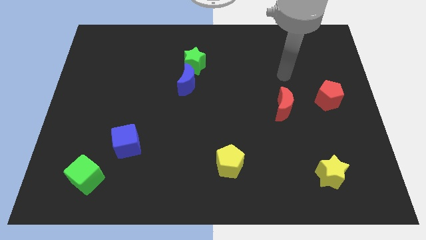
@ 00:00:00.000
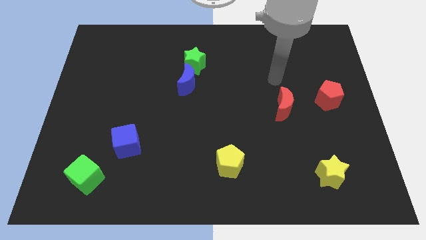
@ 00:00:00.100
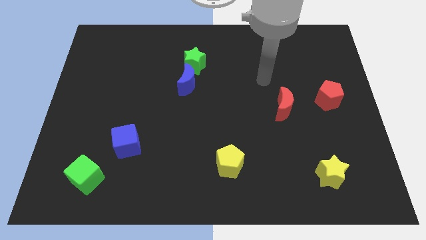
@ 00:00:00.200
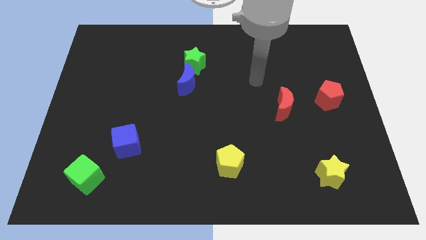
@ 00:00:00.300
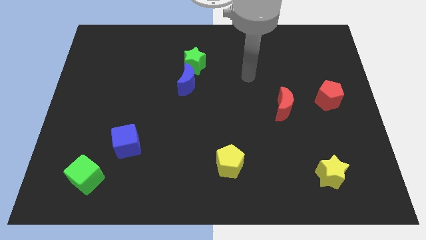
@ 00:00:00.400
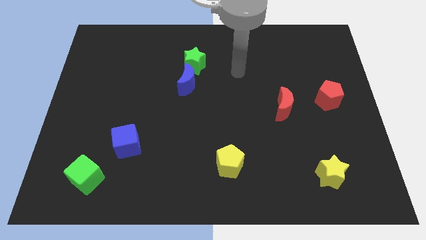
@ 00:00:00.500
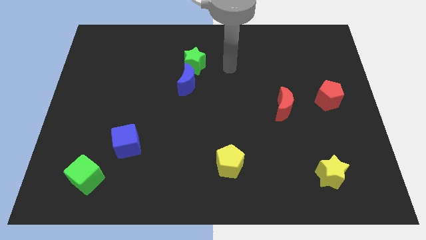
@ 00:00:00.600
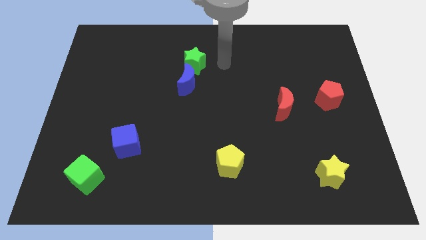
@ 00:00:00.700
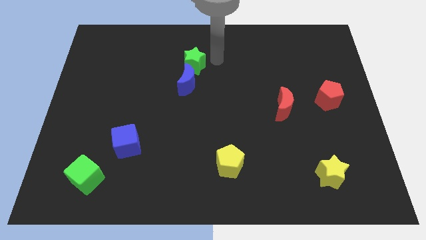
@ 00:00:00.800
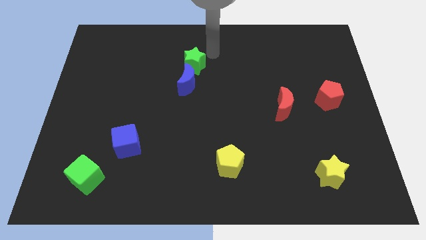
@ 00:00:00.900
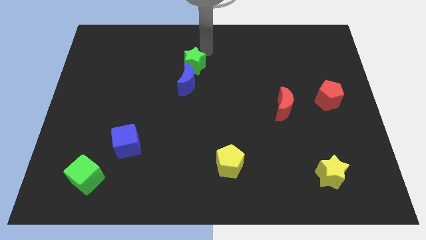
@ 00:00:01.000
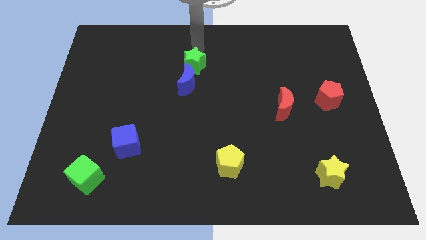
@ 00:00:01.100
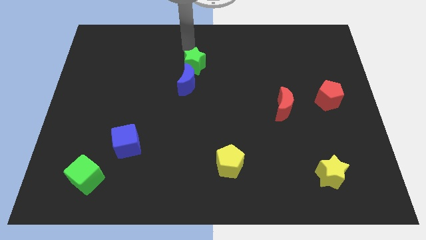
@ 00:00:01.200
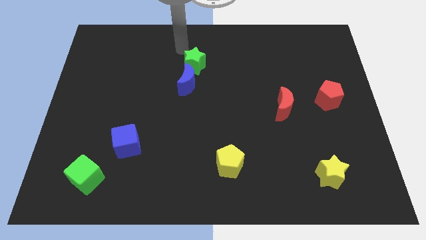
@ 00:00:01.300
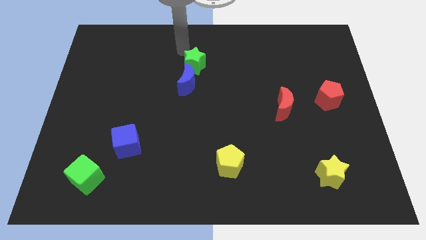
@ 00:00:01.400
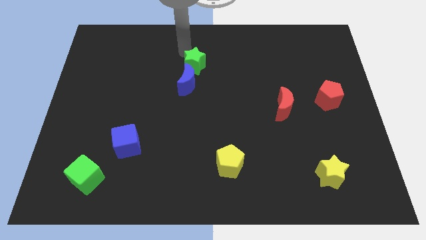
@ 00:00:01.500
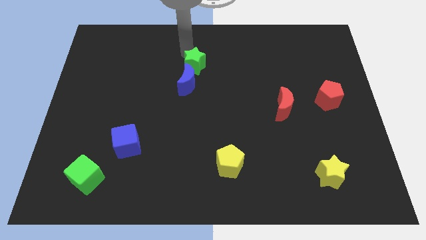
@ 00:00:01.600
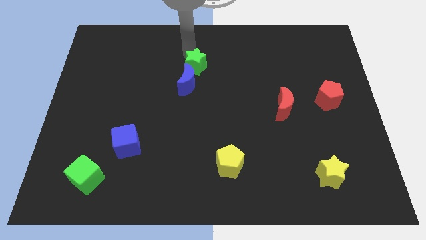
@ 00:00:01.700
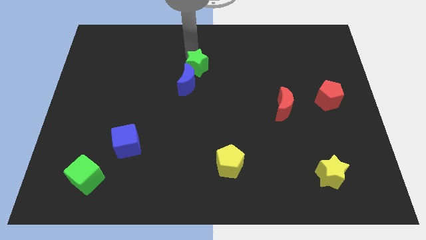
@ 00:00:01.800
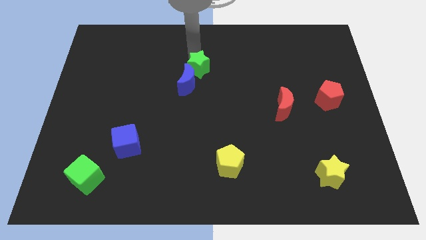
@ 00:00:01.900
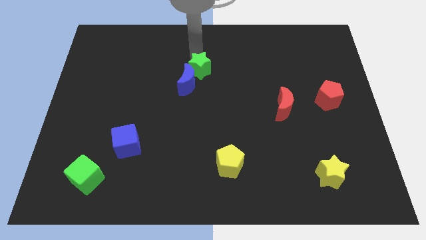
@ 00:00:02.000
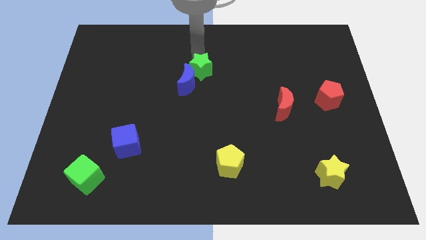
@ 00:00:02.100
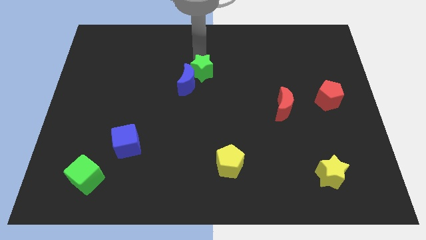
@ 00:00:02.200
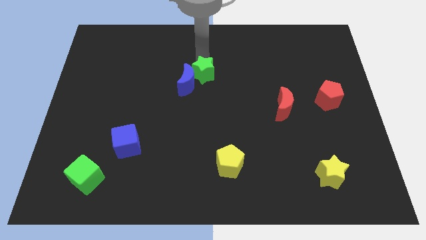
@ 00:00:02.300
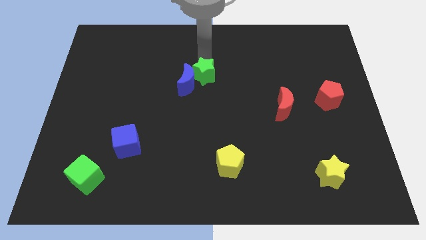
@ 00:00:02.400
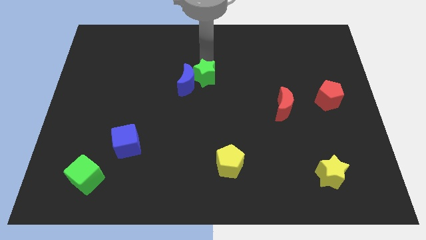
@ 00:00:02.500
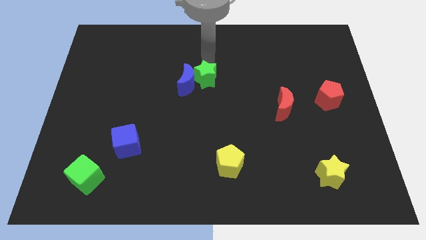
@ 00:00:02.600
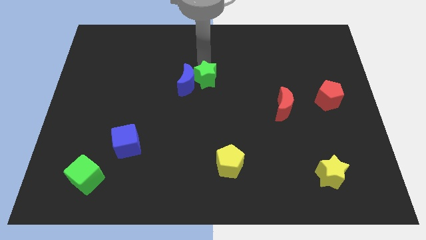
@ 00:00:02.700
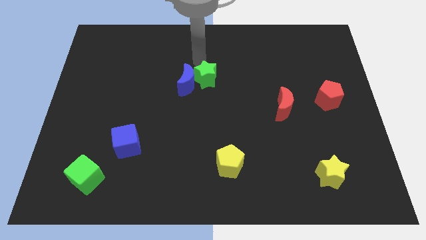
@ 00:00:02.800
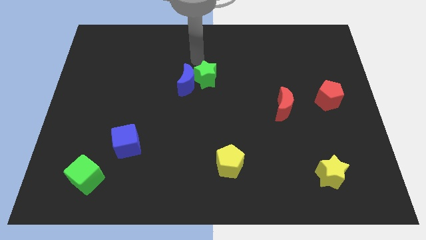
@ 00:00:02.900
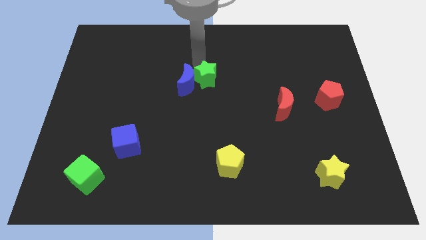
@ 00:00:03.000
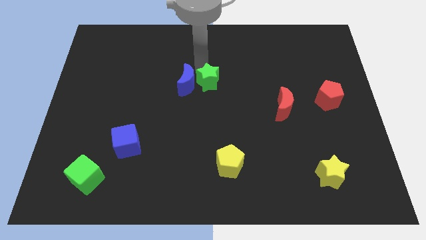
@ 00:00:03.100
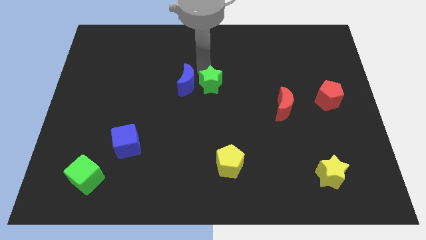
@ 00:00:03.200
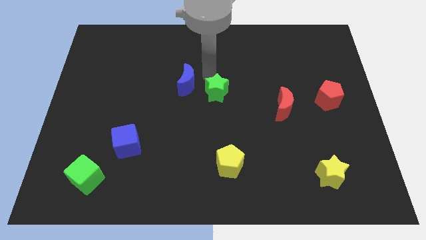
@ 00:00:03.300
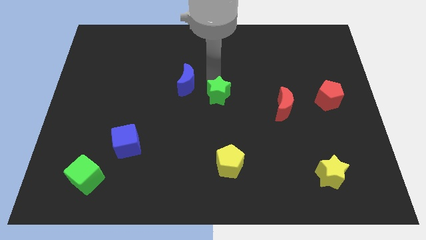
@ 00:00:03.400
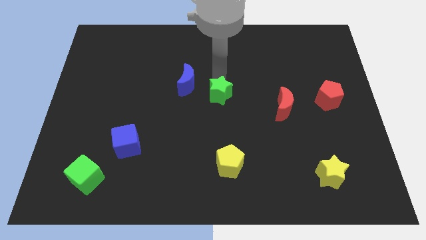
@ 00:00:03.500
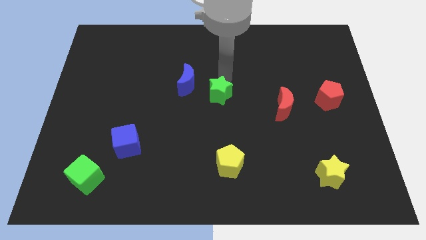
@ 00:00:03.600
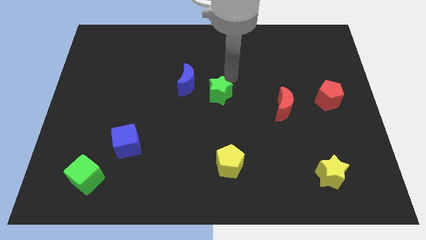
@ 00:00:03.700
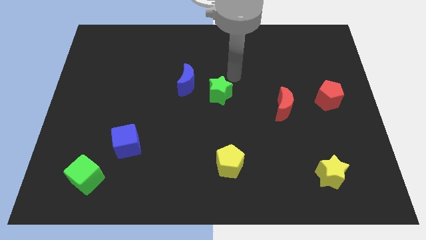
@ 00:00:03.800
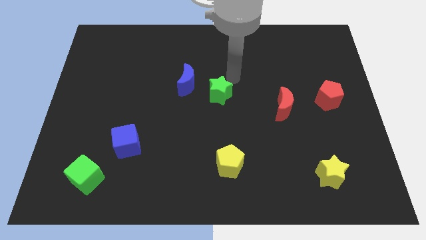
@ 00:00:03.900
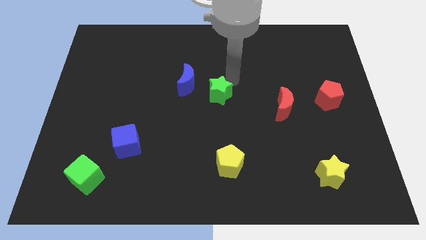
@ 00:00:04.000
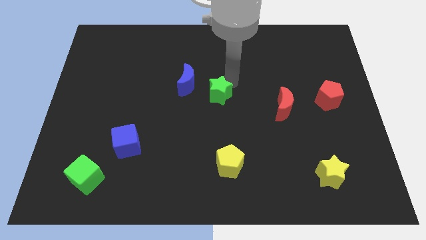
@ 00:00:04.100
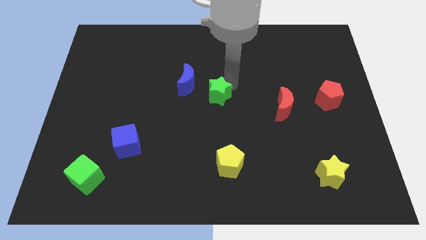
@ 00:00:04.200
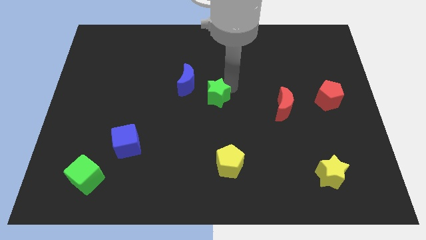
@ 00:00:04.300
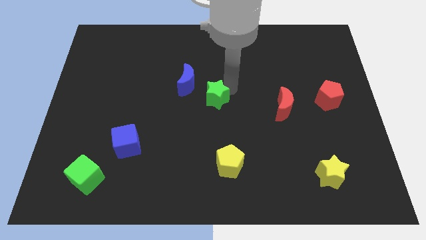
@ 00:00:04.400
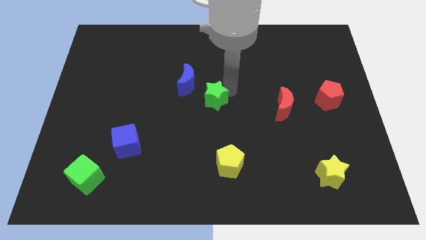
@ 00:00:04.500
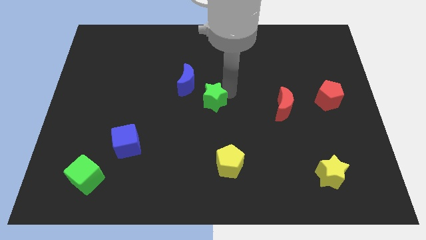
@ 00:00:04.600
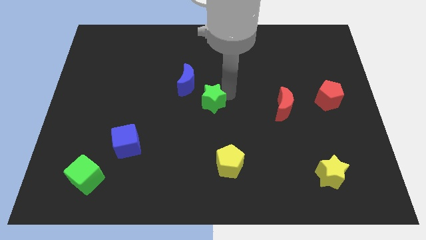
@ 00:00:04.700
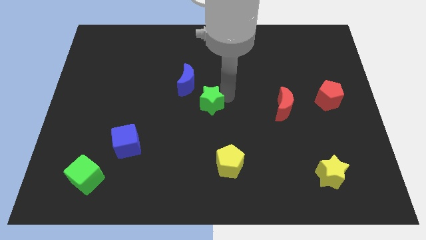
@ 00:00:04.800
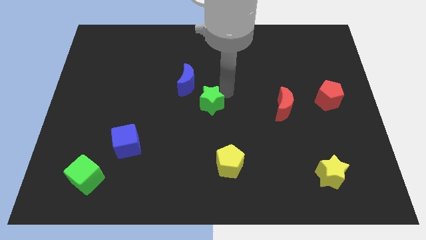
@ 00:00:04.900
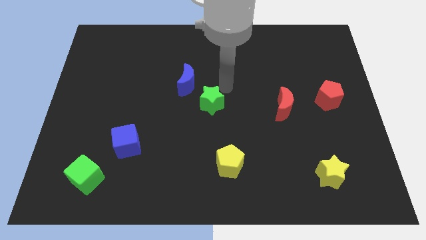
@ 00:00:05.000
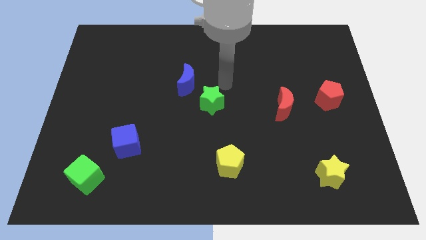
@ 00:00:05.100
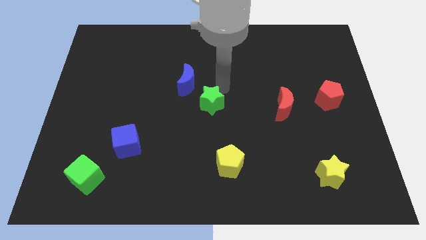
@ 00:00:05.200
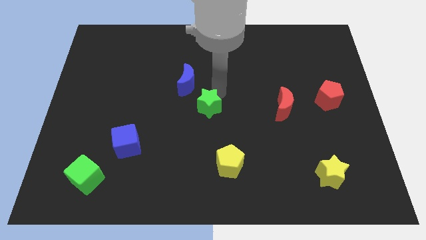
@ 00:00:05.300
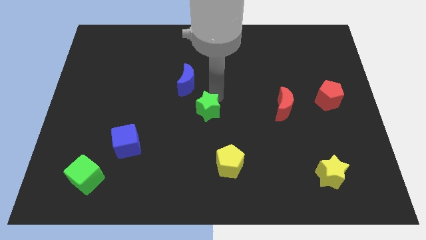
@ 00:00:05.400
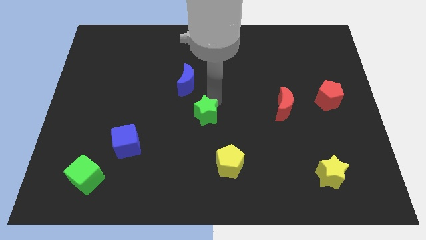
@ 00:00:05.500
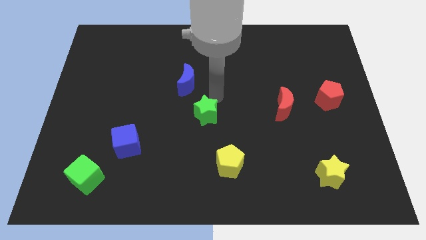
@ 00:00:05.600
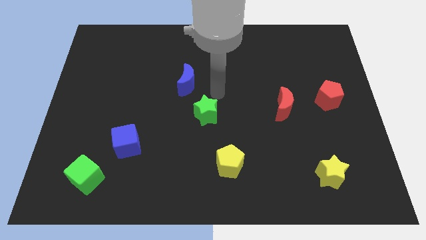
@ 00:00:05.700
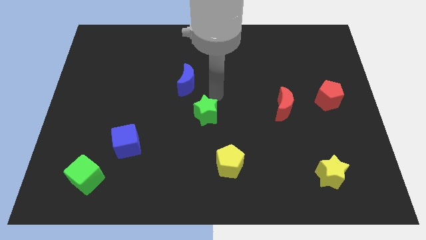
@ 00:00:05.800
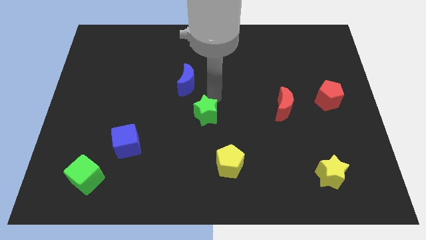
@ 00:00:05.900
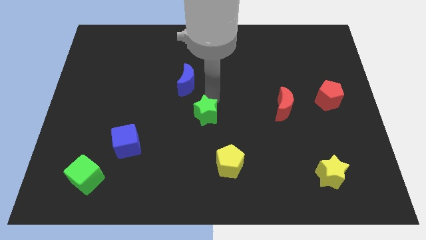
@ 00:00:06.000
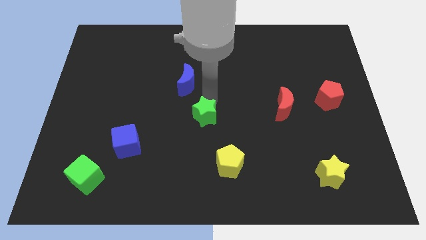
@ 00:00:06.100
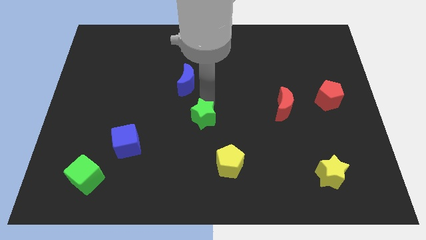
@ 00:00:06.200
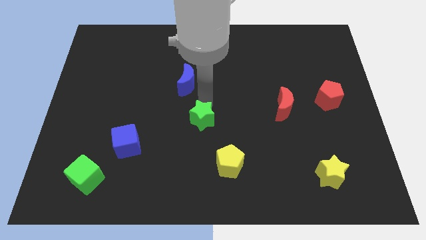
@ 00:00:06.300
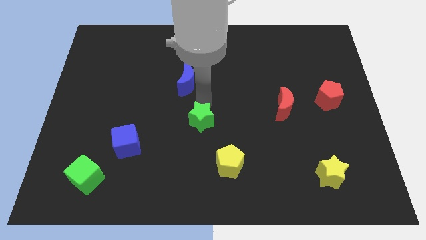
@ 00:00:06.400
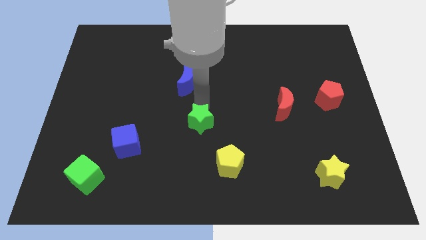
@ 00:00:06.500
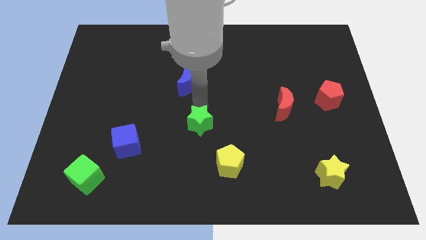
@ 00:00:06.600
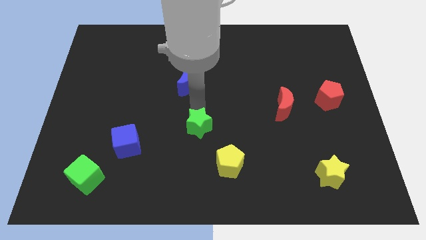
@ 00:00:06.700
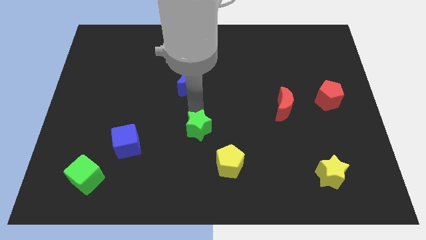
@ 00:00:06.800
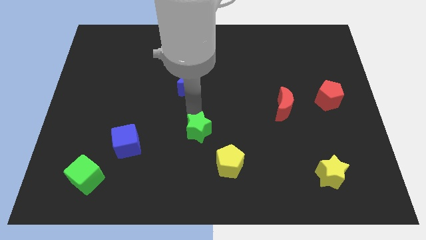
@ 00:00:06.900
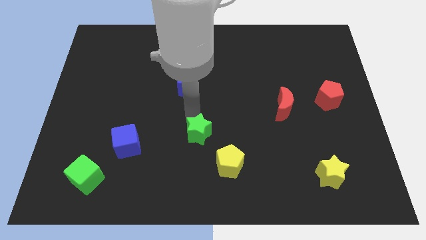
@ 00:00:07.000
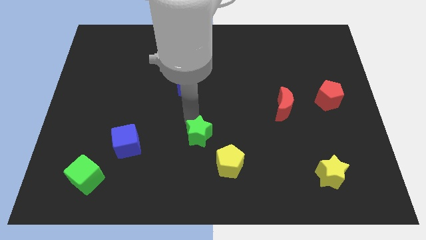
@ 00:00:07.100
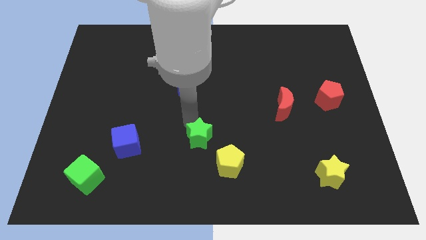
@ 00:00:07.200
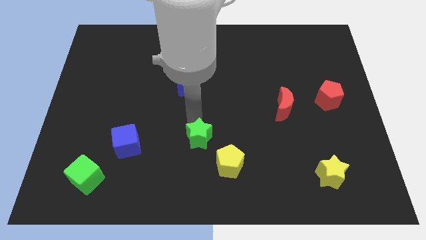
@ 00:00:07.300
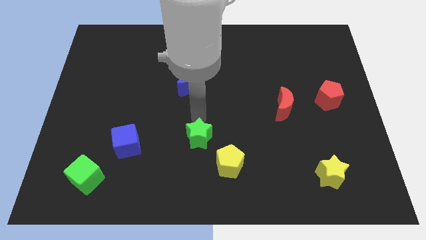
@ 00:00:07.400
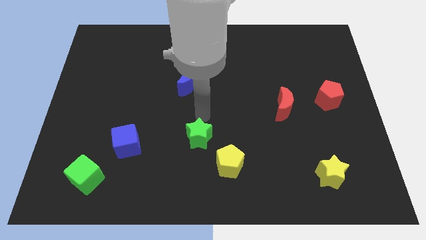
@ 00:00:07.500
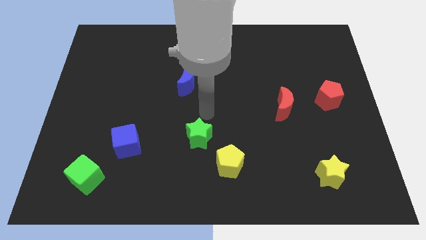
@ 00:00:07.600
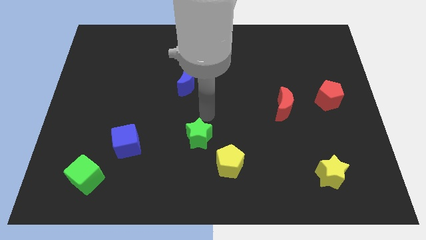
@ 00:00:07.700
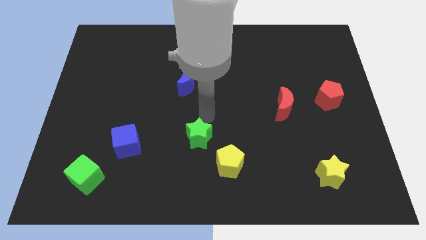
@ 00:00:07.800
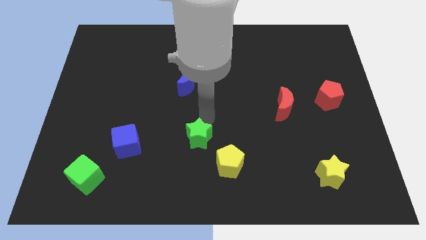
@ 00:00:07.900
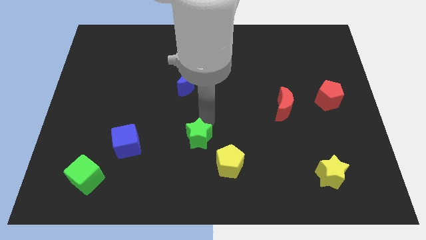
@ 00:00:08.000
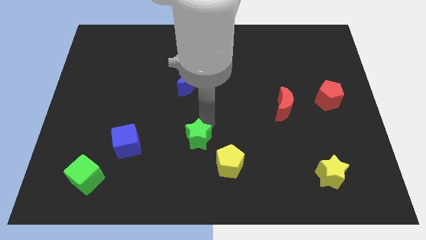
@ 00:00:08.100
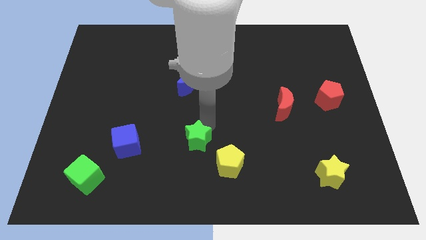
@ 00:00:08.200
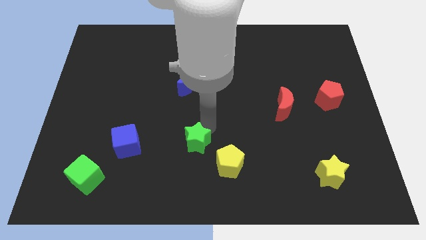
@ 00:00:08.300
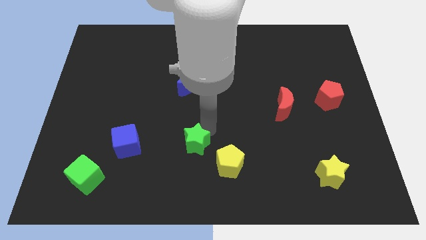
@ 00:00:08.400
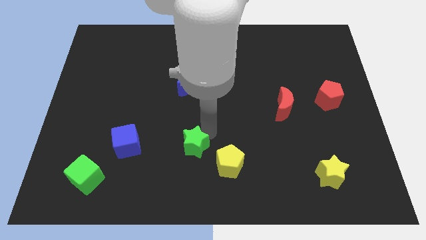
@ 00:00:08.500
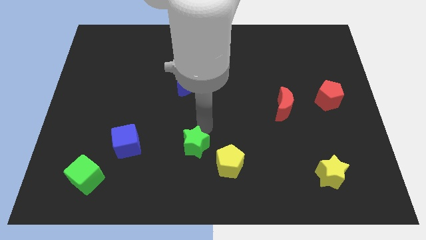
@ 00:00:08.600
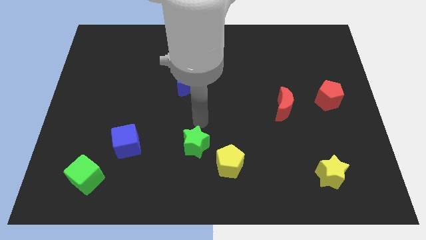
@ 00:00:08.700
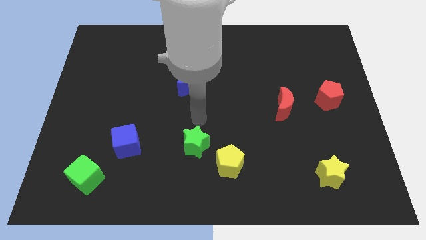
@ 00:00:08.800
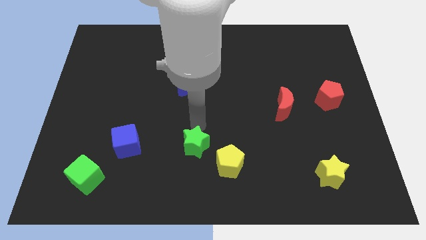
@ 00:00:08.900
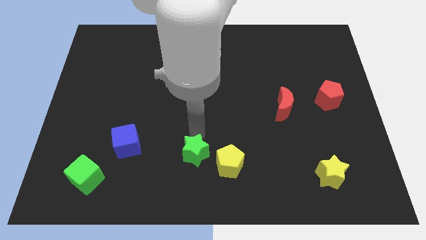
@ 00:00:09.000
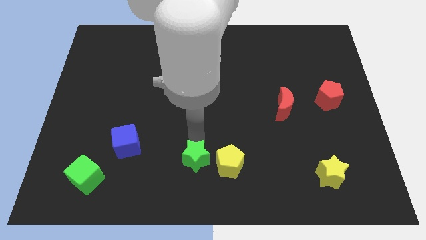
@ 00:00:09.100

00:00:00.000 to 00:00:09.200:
put the green star to the bottom side
